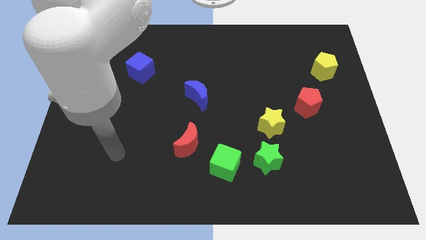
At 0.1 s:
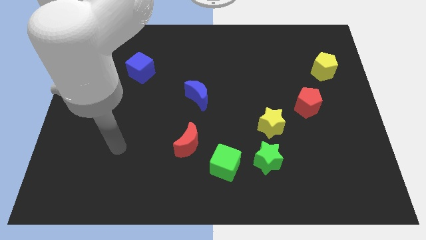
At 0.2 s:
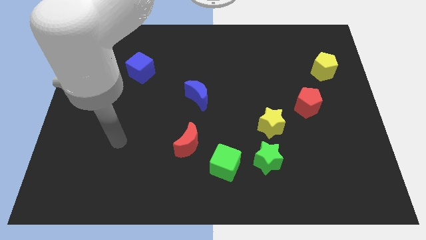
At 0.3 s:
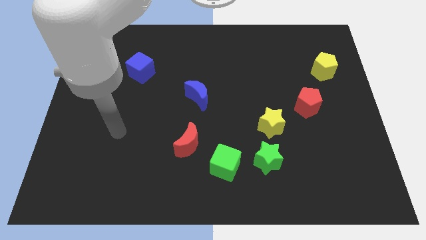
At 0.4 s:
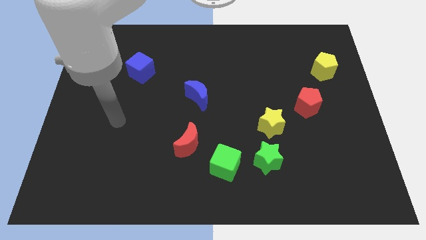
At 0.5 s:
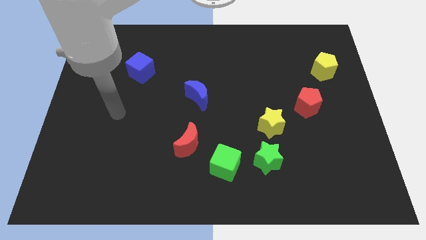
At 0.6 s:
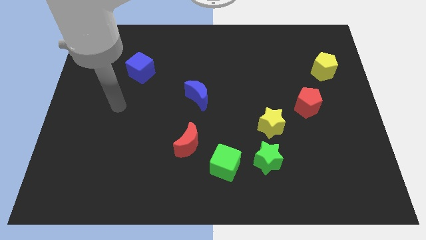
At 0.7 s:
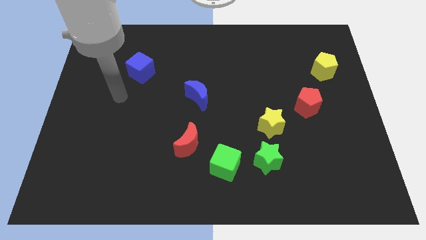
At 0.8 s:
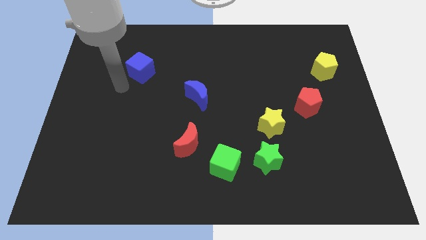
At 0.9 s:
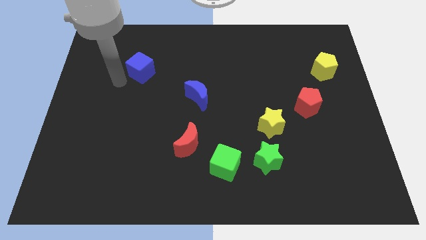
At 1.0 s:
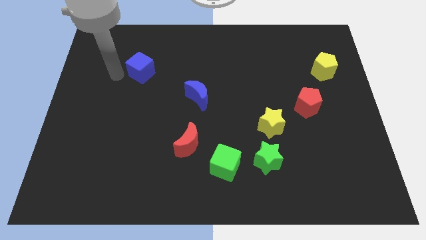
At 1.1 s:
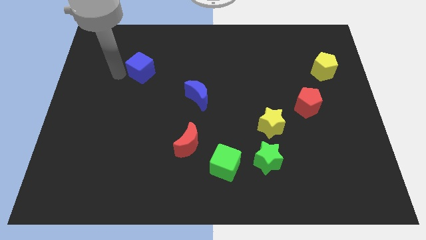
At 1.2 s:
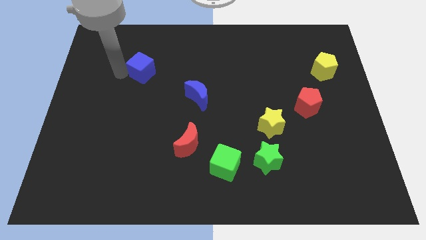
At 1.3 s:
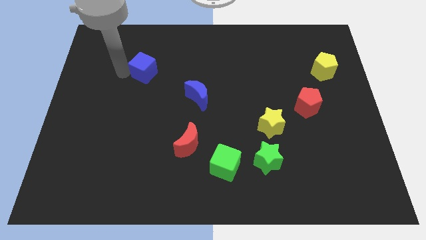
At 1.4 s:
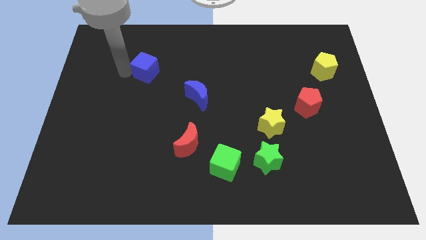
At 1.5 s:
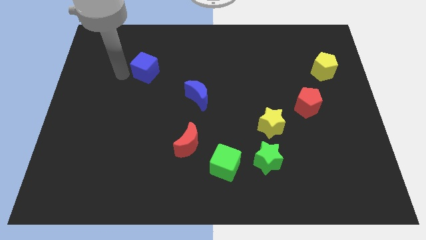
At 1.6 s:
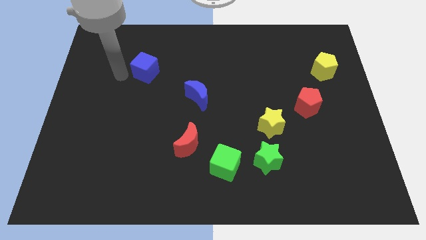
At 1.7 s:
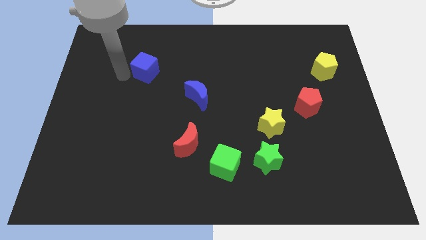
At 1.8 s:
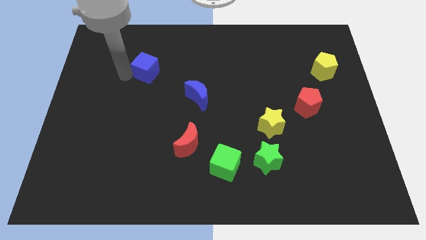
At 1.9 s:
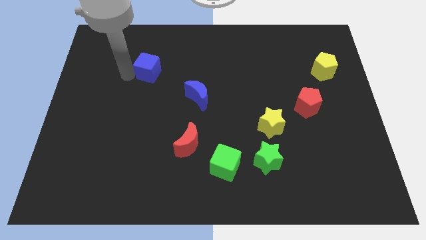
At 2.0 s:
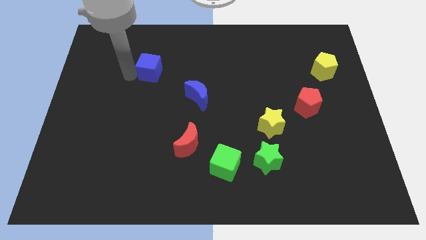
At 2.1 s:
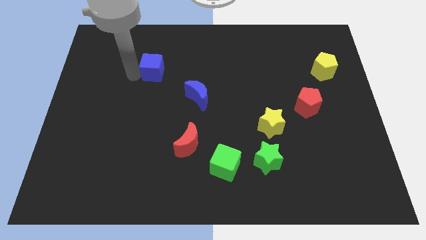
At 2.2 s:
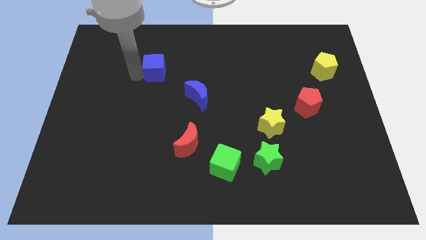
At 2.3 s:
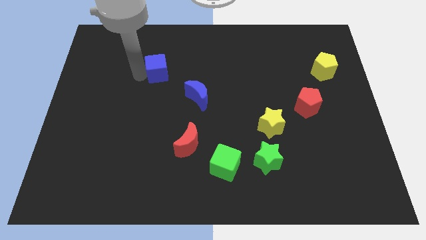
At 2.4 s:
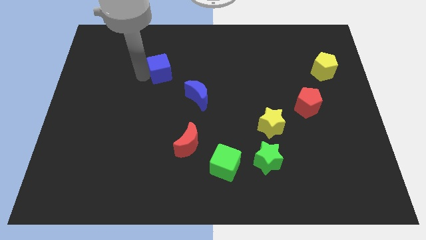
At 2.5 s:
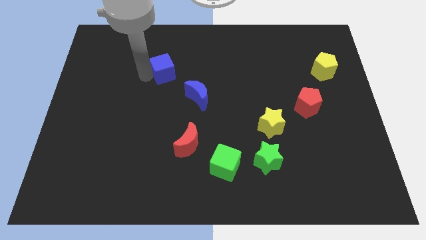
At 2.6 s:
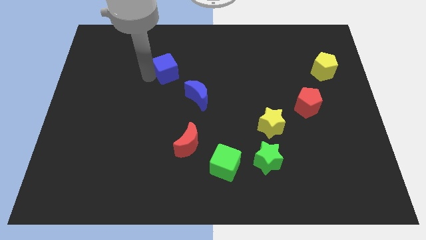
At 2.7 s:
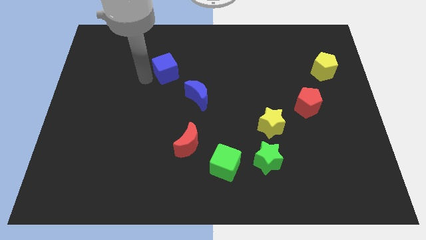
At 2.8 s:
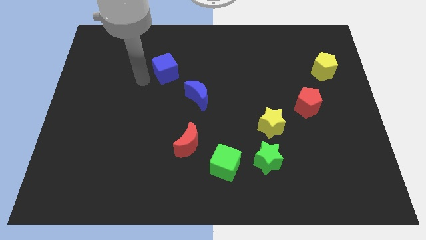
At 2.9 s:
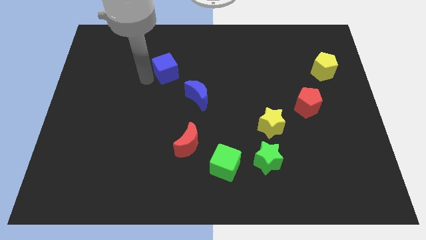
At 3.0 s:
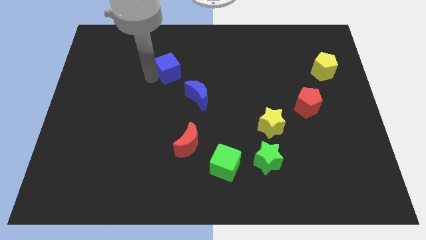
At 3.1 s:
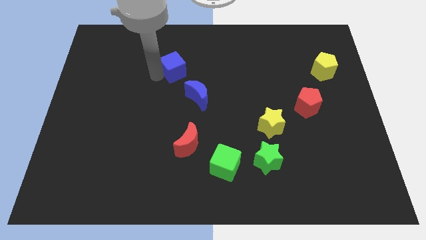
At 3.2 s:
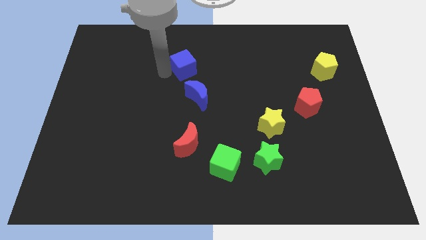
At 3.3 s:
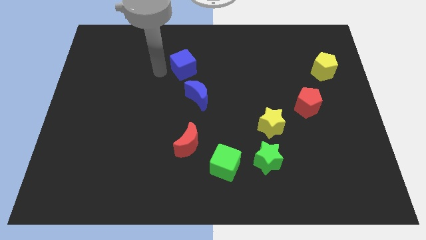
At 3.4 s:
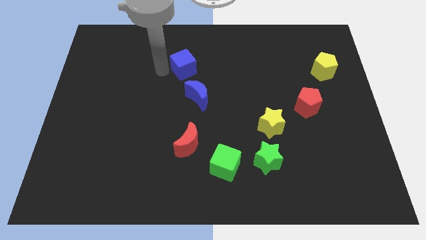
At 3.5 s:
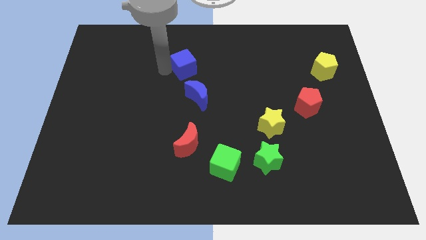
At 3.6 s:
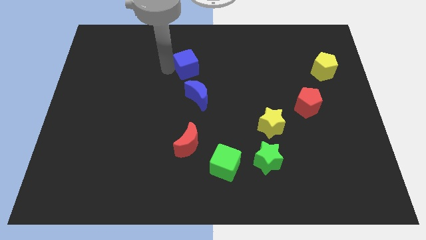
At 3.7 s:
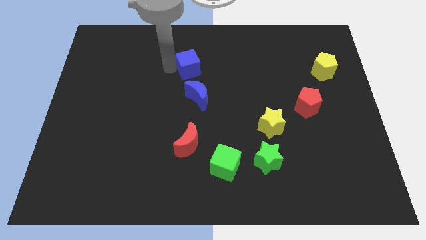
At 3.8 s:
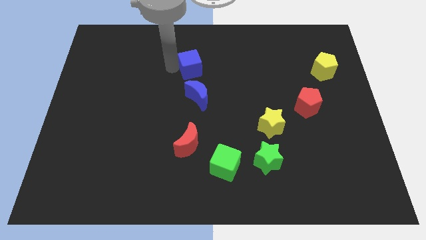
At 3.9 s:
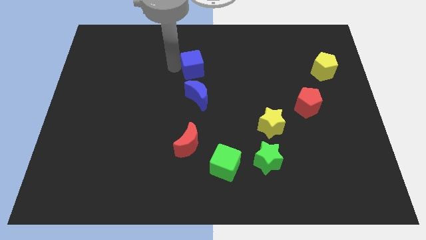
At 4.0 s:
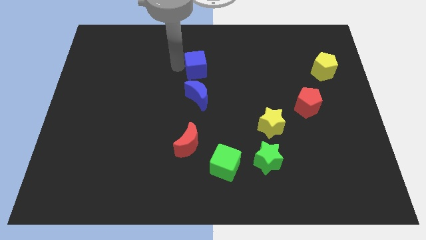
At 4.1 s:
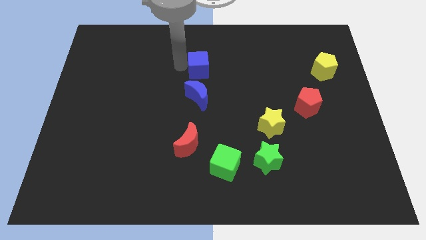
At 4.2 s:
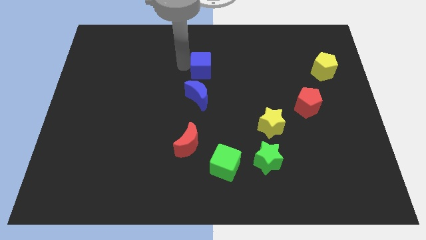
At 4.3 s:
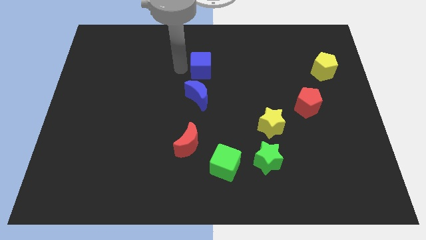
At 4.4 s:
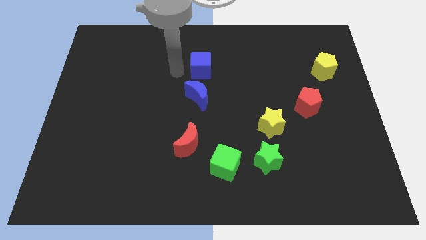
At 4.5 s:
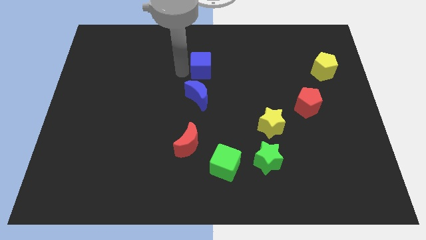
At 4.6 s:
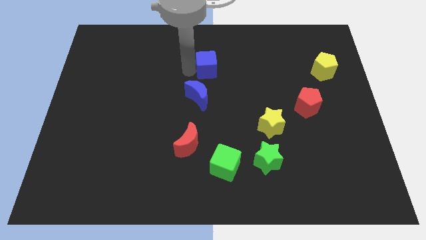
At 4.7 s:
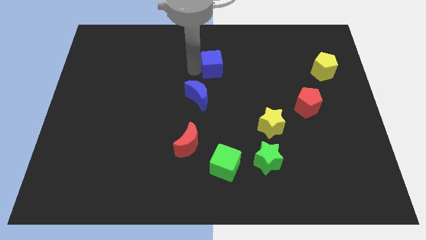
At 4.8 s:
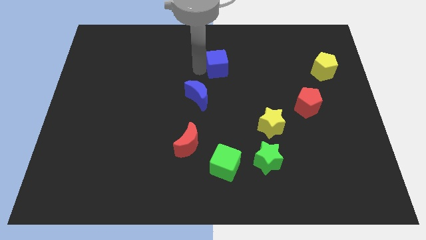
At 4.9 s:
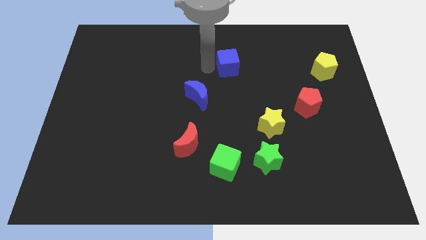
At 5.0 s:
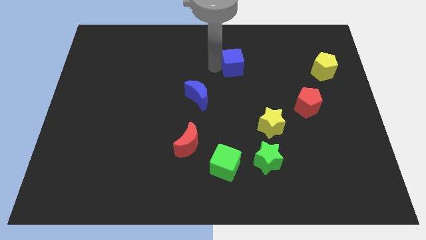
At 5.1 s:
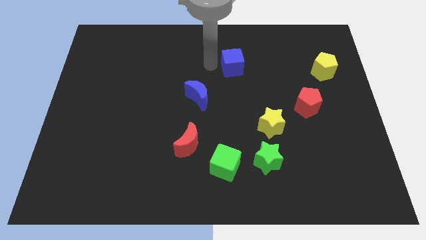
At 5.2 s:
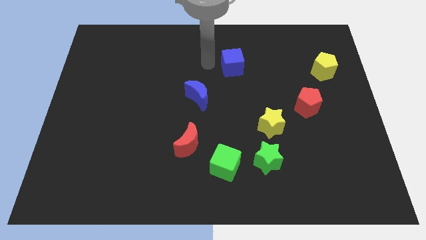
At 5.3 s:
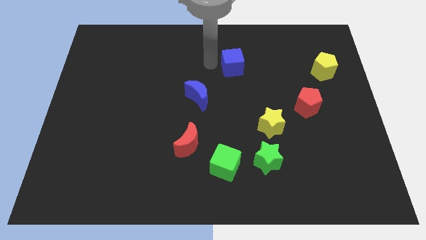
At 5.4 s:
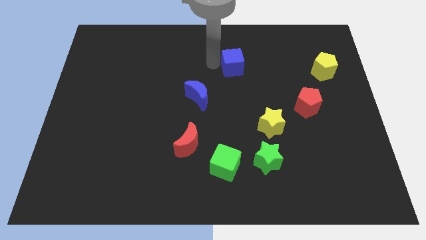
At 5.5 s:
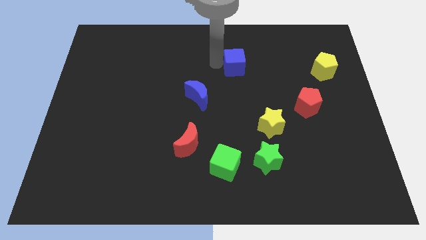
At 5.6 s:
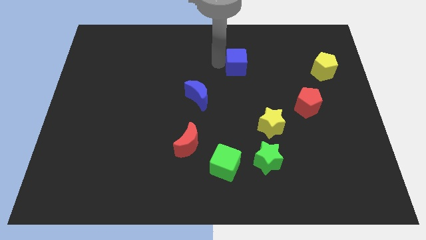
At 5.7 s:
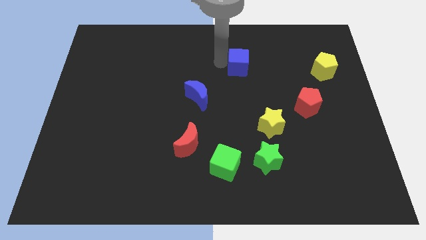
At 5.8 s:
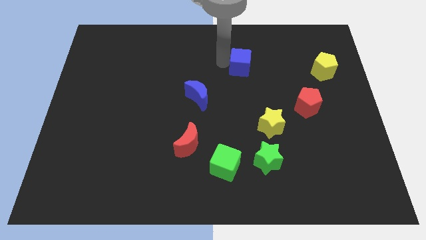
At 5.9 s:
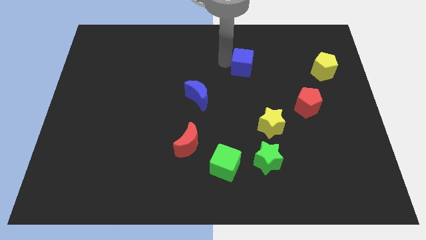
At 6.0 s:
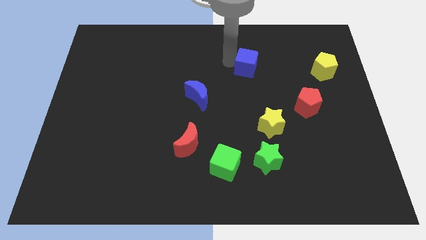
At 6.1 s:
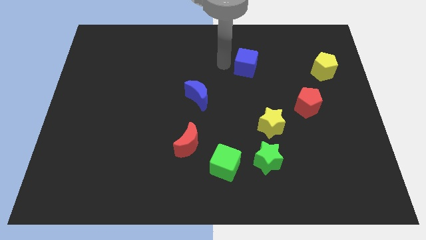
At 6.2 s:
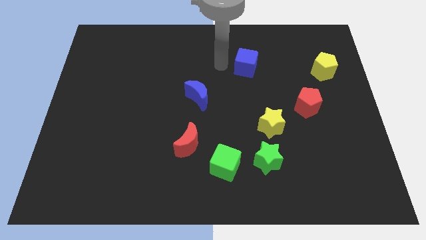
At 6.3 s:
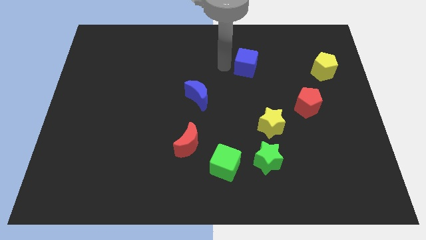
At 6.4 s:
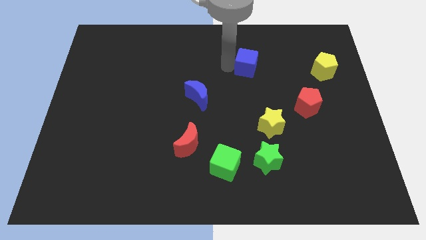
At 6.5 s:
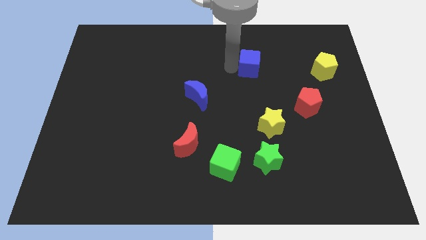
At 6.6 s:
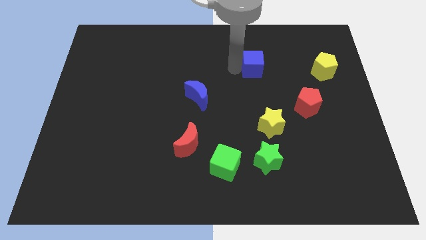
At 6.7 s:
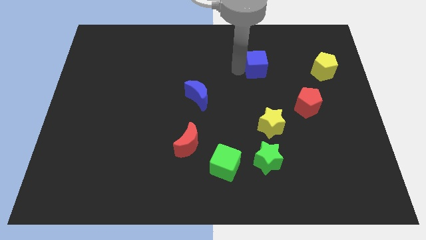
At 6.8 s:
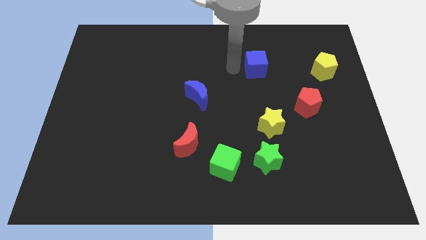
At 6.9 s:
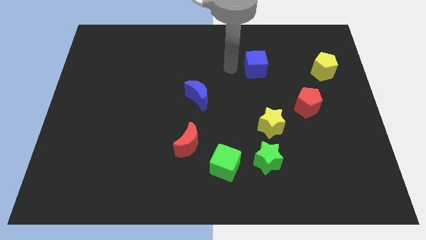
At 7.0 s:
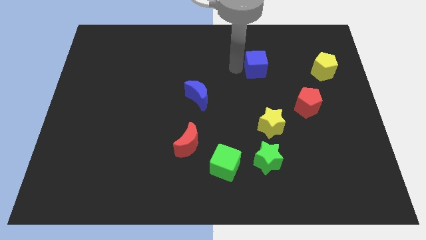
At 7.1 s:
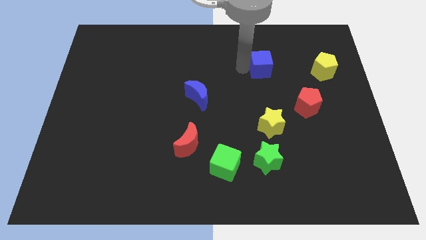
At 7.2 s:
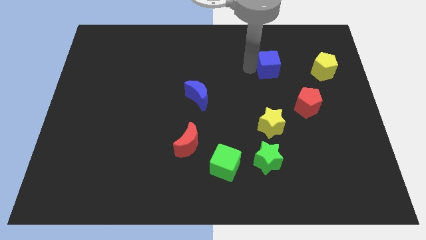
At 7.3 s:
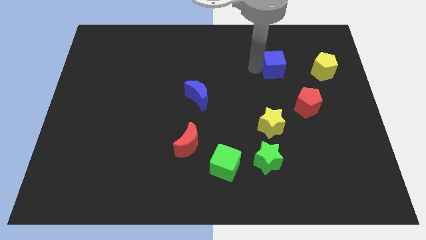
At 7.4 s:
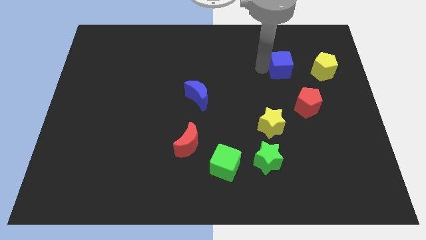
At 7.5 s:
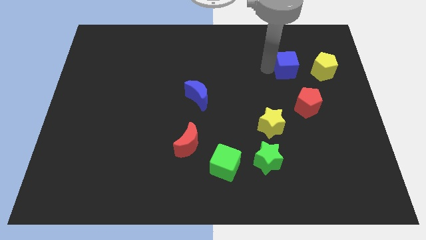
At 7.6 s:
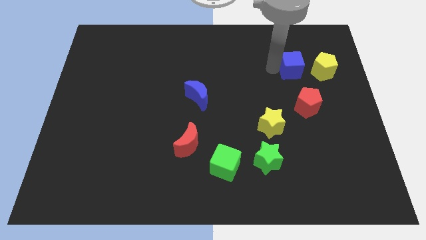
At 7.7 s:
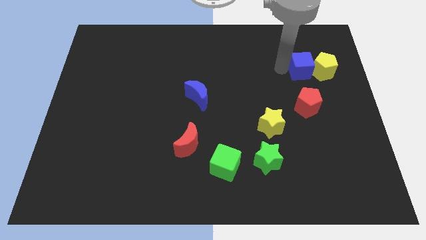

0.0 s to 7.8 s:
put the blue cube towards the yellow pentagon
